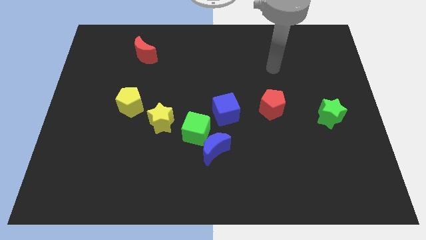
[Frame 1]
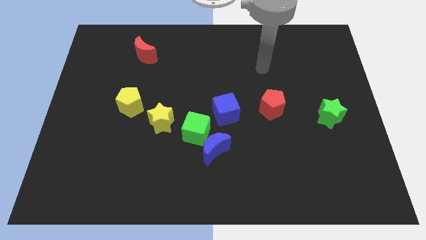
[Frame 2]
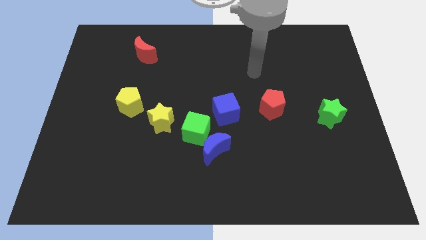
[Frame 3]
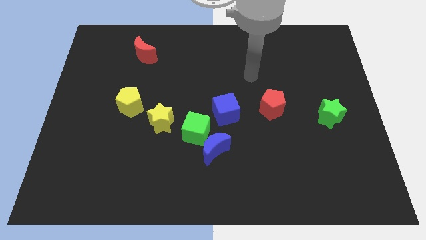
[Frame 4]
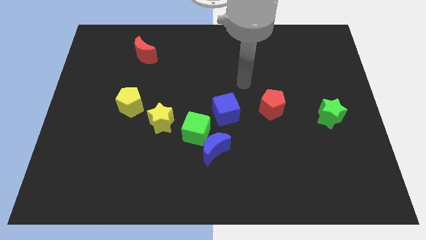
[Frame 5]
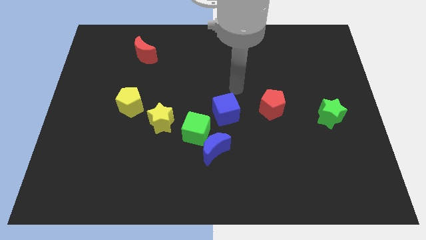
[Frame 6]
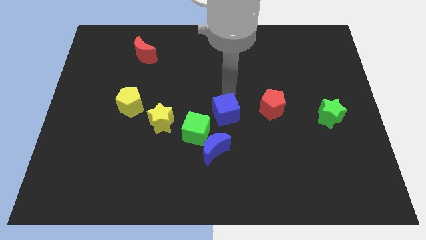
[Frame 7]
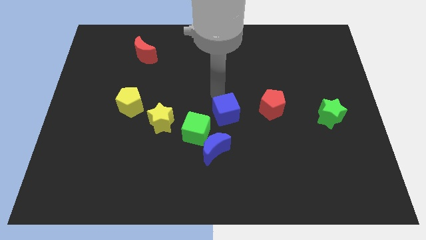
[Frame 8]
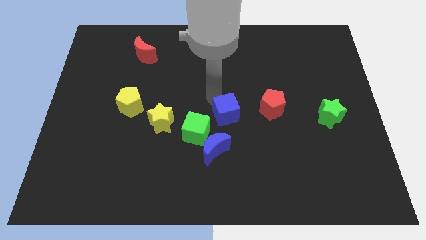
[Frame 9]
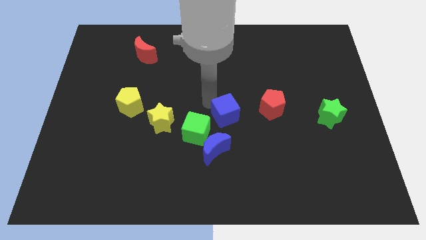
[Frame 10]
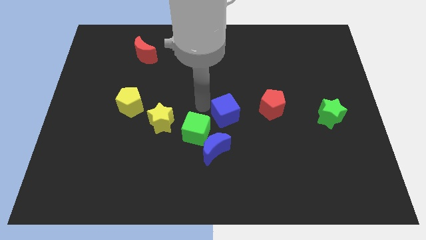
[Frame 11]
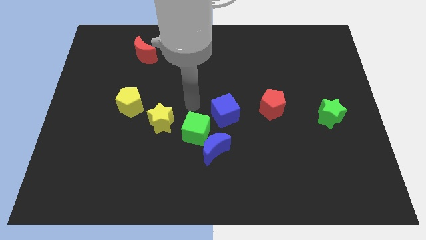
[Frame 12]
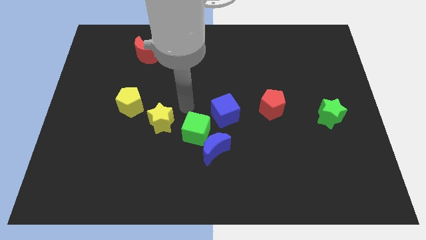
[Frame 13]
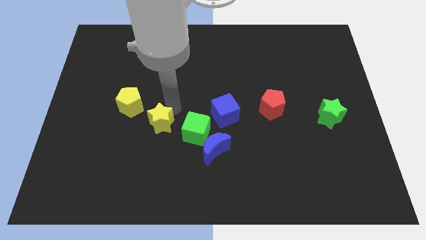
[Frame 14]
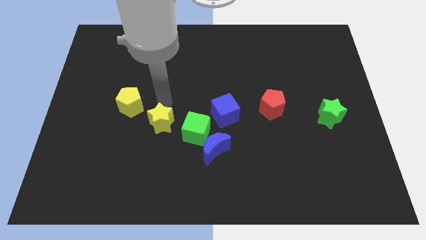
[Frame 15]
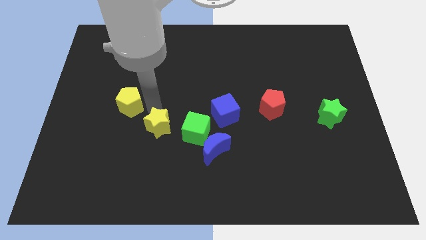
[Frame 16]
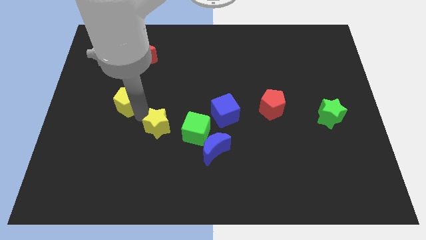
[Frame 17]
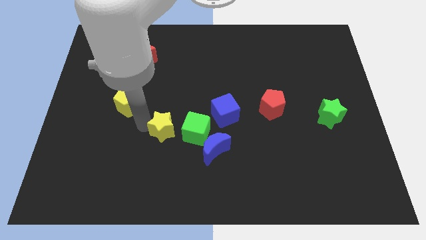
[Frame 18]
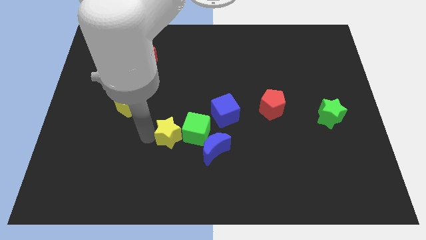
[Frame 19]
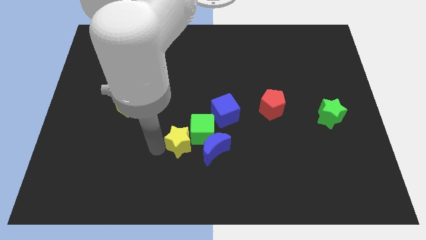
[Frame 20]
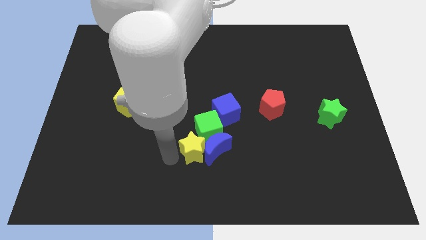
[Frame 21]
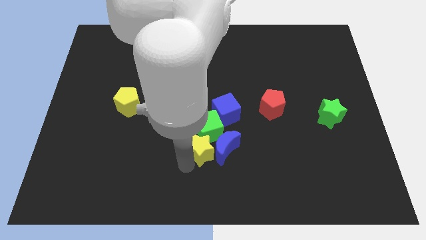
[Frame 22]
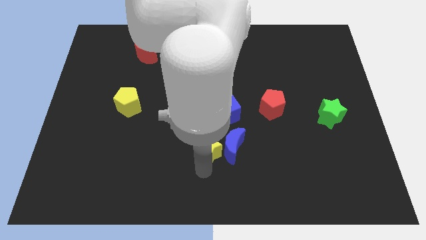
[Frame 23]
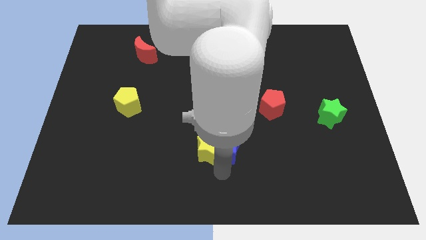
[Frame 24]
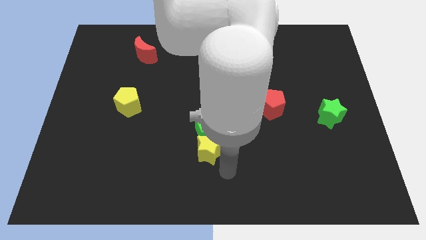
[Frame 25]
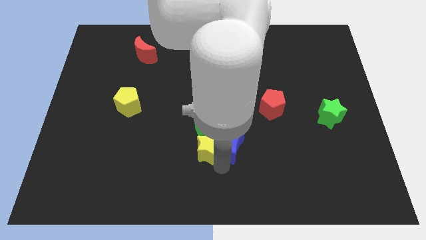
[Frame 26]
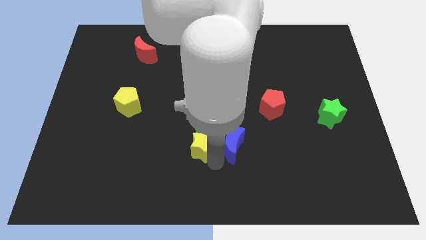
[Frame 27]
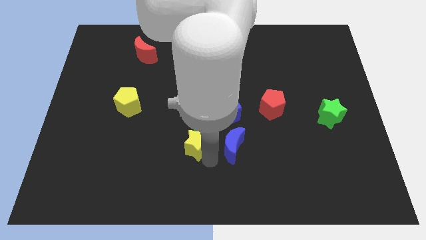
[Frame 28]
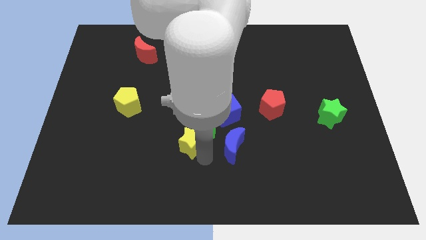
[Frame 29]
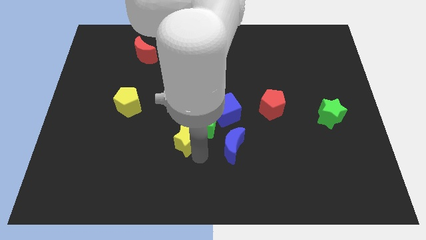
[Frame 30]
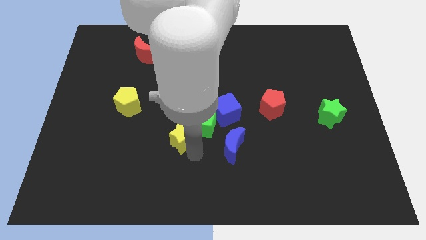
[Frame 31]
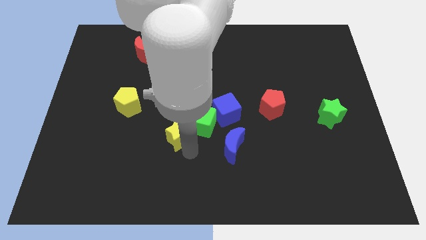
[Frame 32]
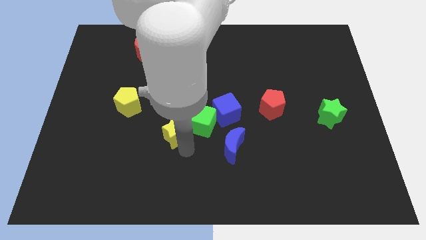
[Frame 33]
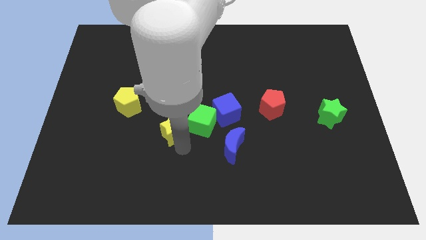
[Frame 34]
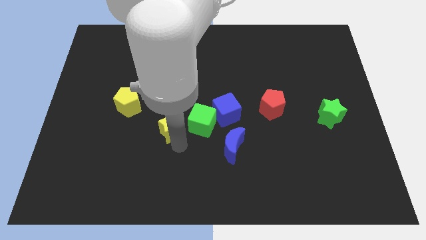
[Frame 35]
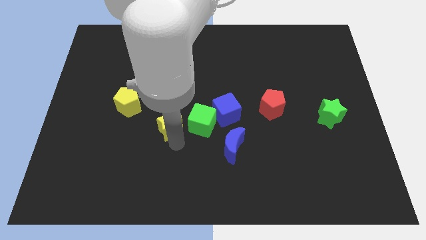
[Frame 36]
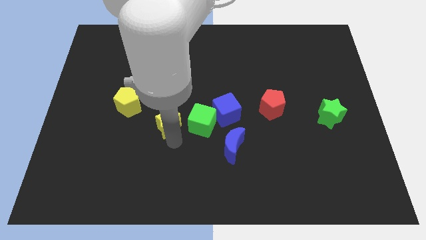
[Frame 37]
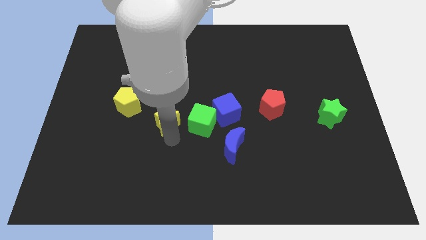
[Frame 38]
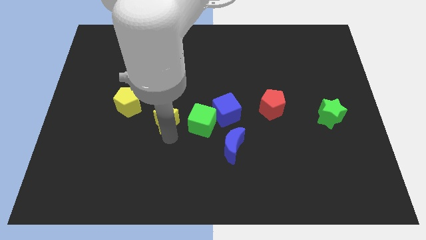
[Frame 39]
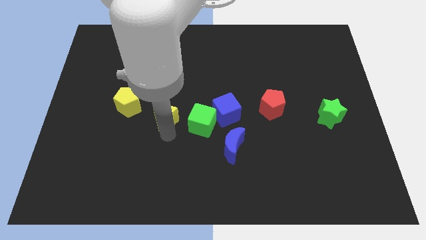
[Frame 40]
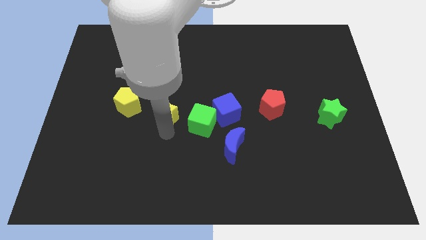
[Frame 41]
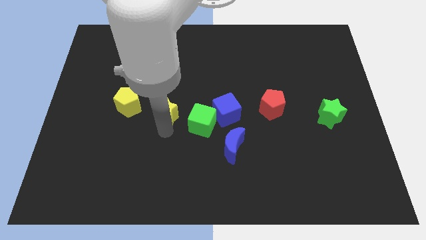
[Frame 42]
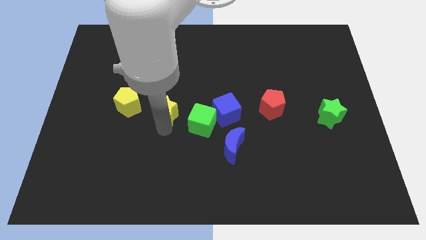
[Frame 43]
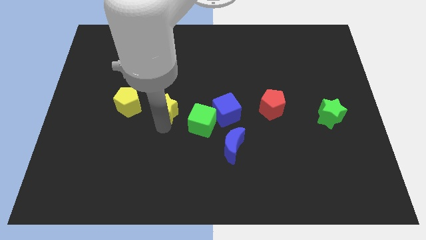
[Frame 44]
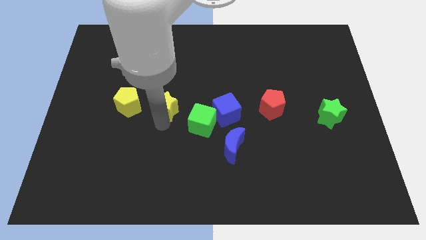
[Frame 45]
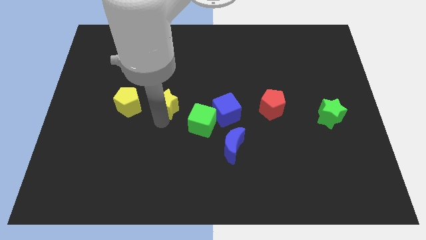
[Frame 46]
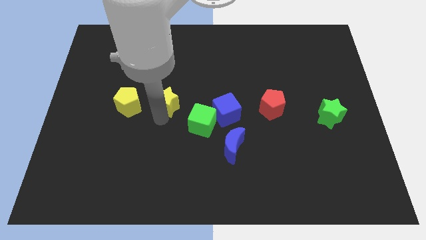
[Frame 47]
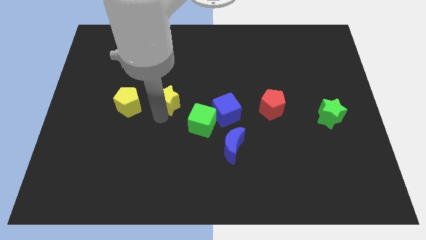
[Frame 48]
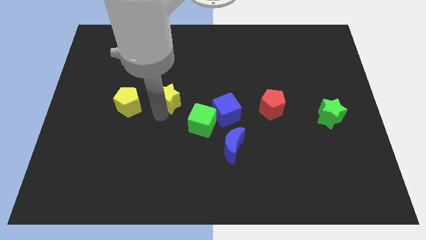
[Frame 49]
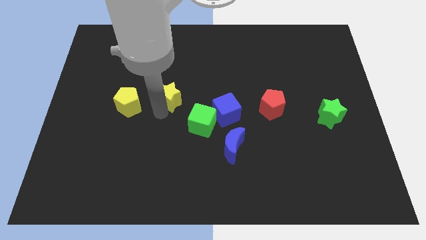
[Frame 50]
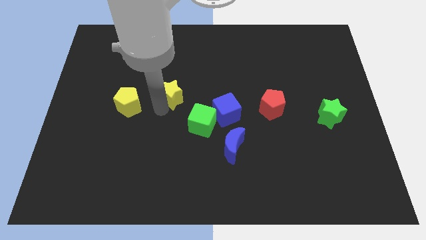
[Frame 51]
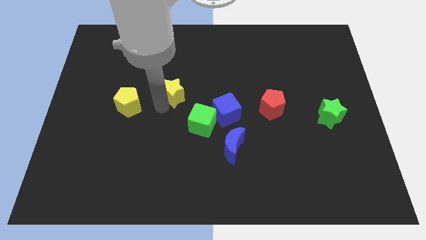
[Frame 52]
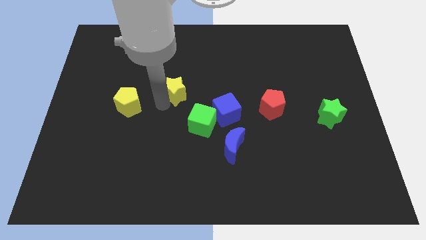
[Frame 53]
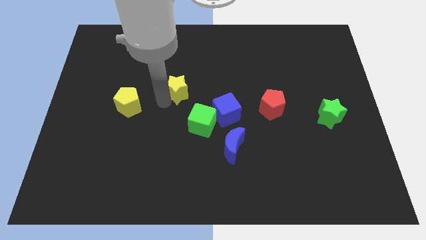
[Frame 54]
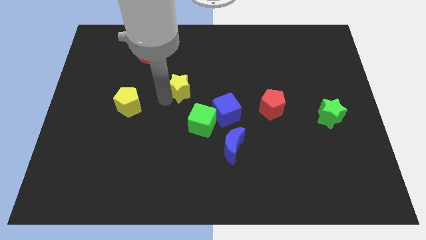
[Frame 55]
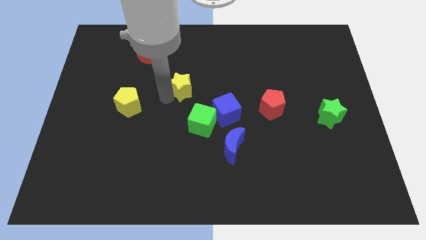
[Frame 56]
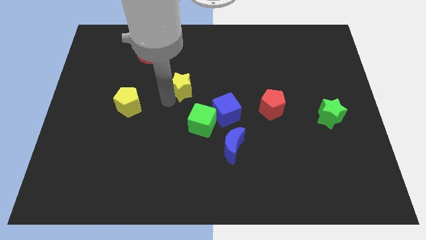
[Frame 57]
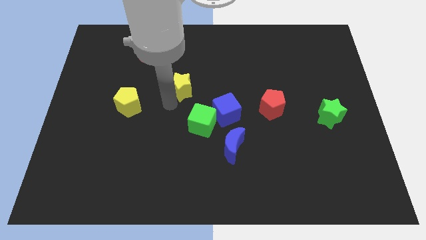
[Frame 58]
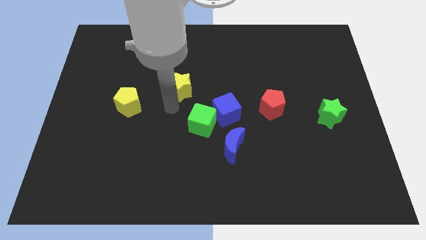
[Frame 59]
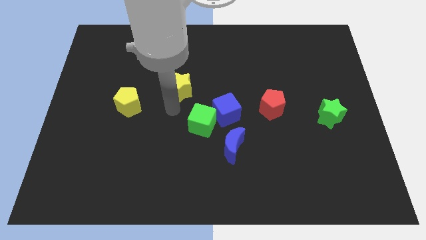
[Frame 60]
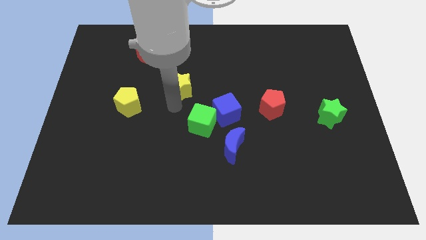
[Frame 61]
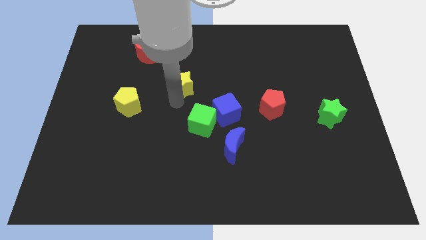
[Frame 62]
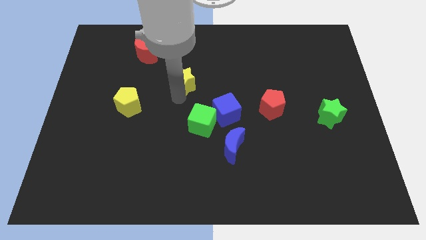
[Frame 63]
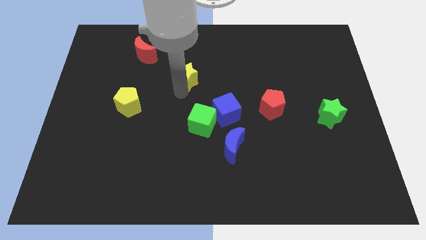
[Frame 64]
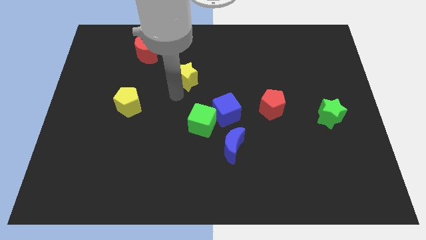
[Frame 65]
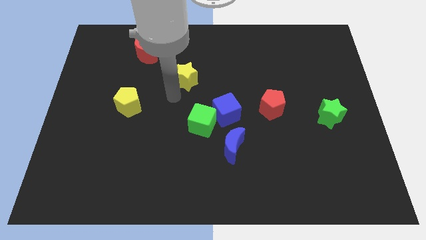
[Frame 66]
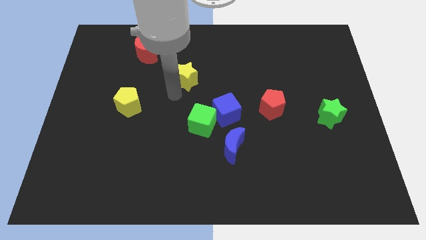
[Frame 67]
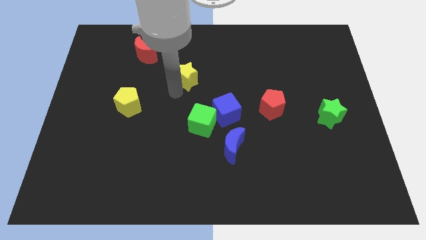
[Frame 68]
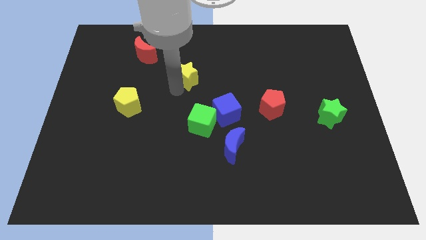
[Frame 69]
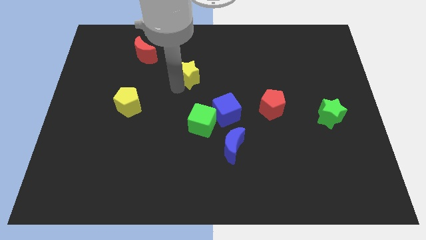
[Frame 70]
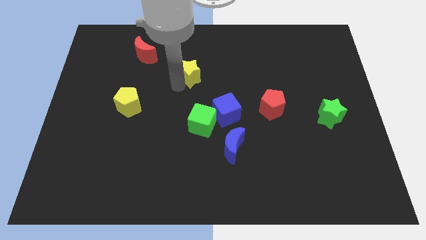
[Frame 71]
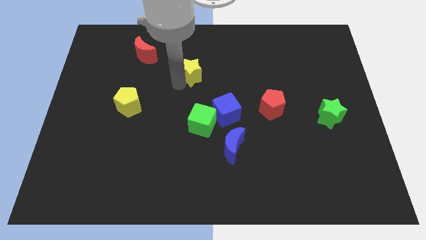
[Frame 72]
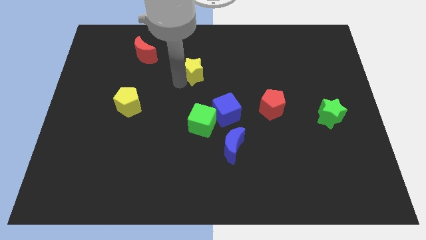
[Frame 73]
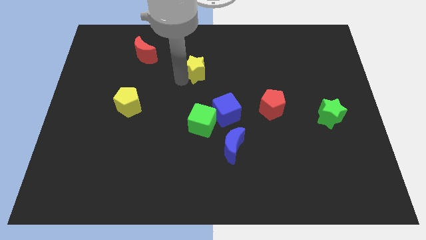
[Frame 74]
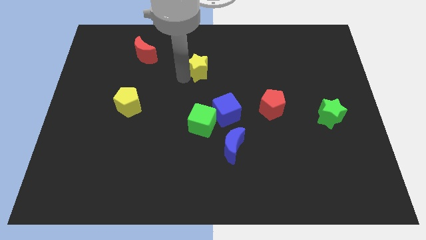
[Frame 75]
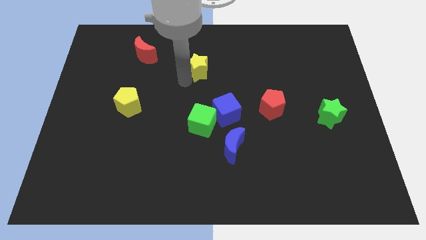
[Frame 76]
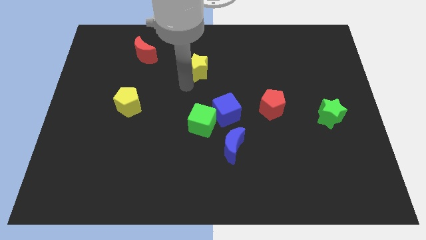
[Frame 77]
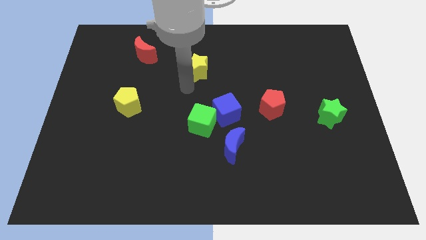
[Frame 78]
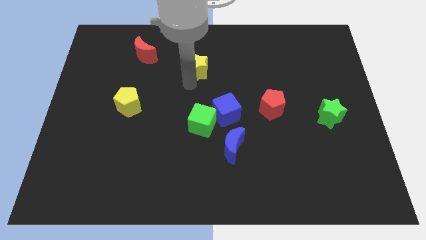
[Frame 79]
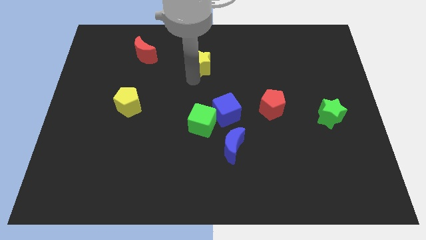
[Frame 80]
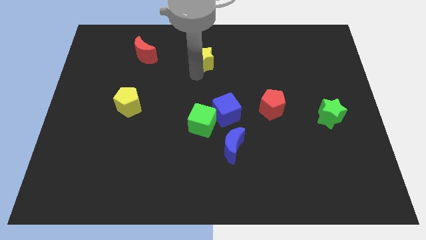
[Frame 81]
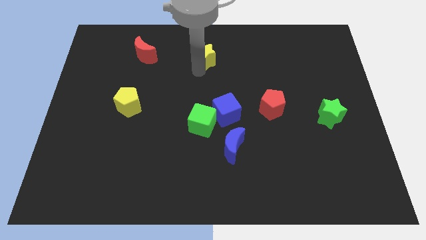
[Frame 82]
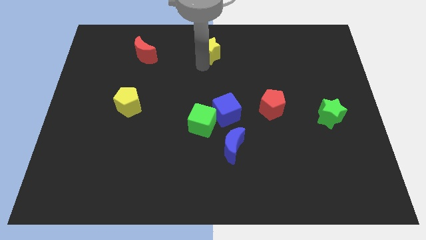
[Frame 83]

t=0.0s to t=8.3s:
move the yellow star to the top side
